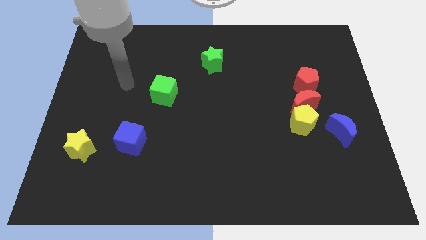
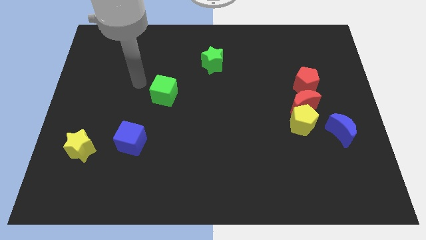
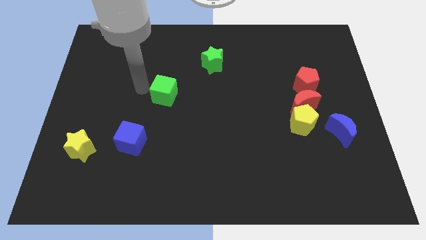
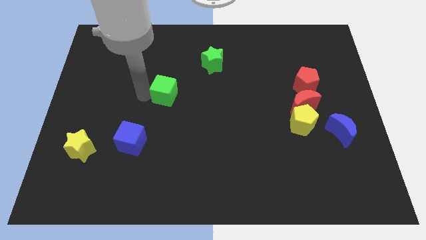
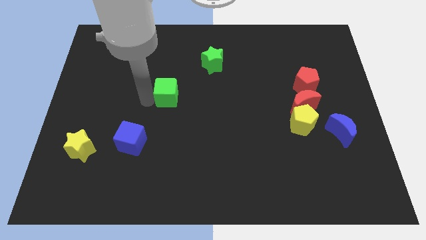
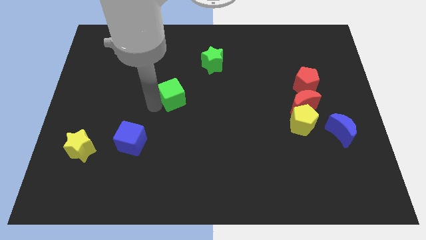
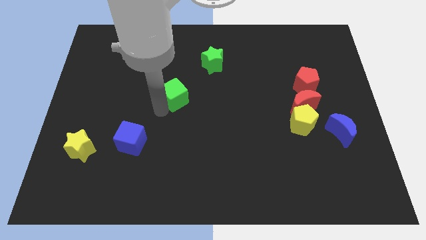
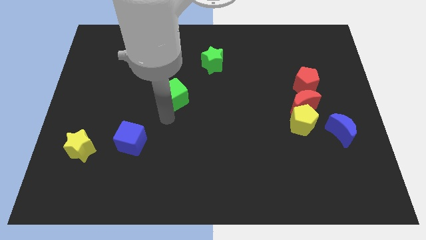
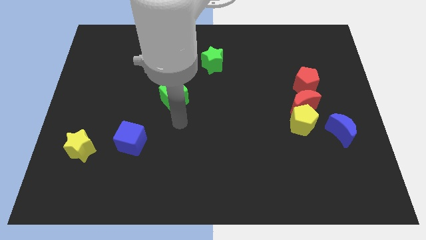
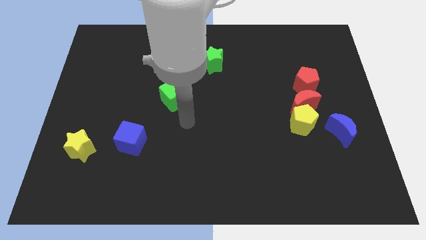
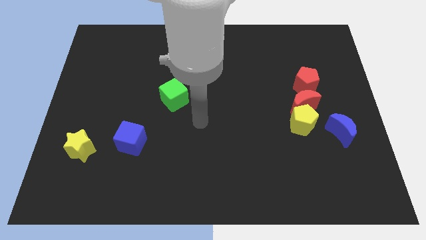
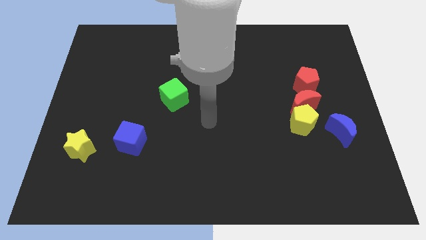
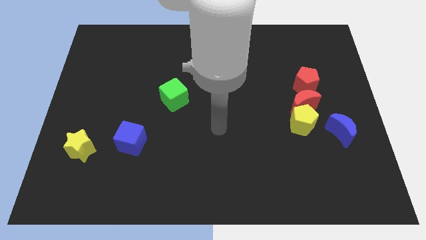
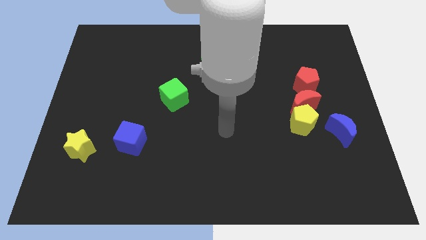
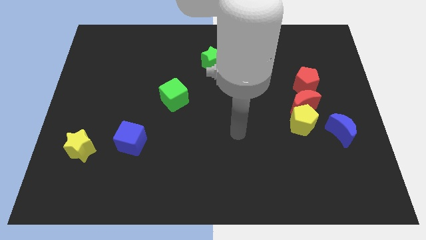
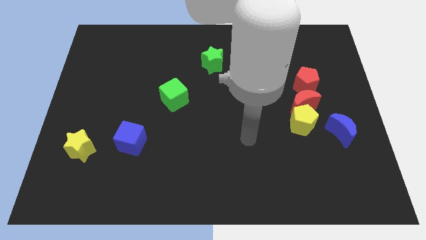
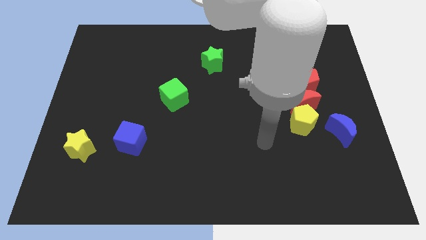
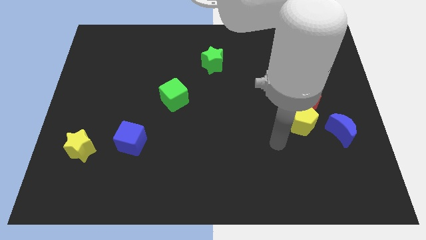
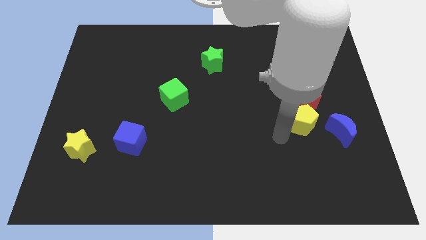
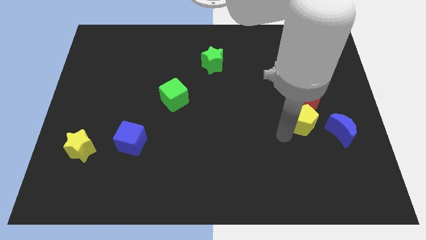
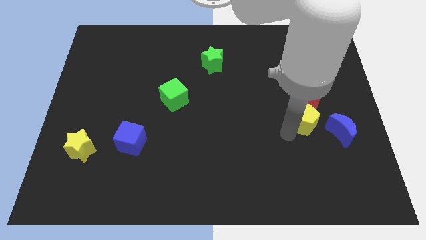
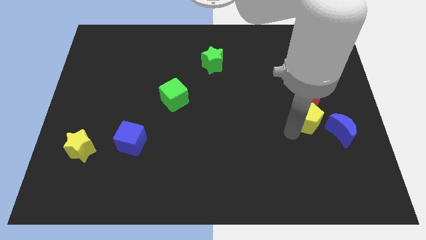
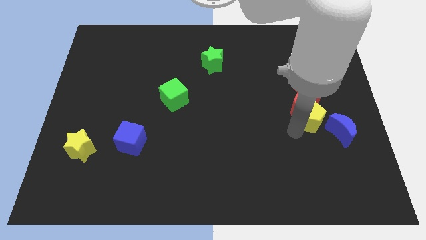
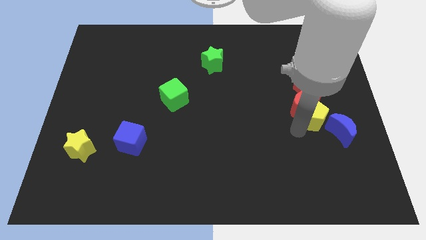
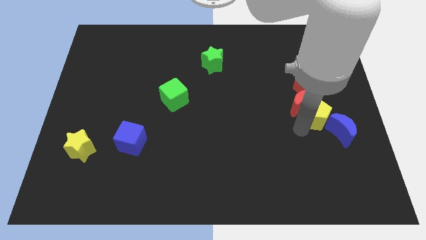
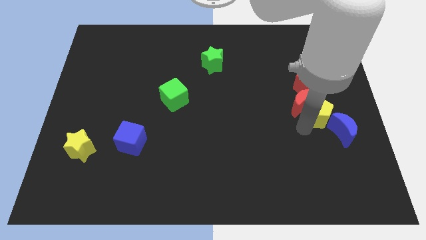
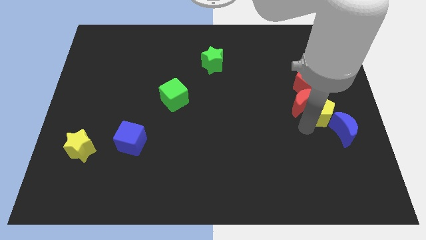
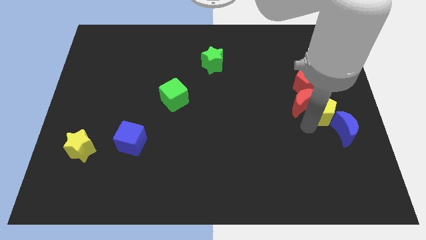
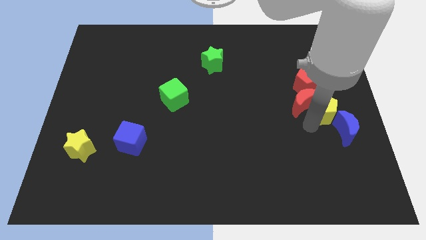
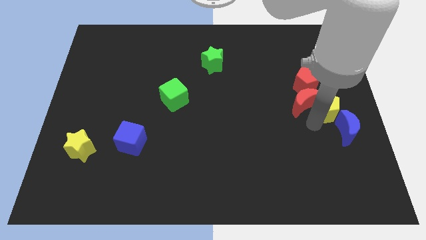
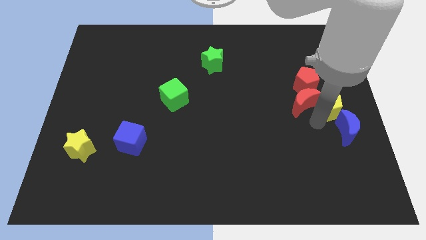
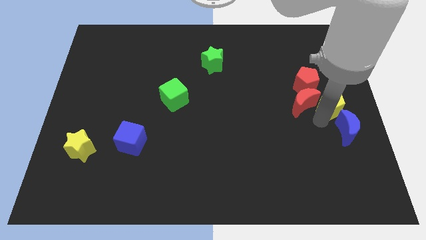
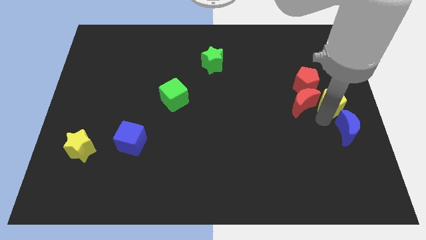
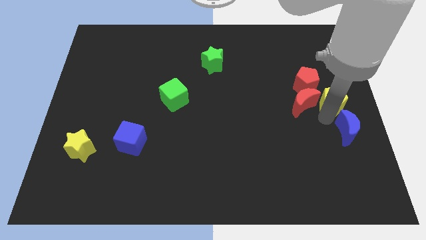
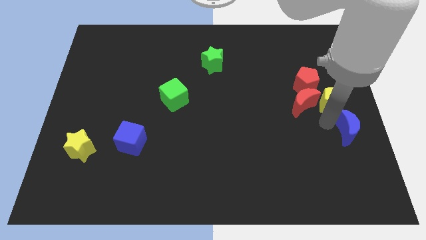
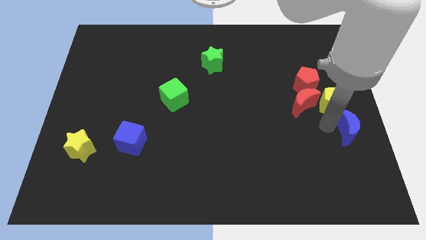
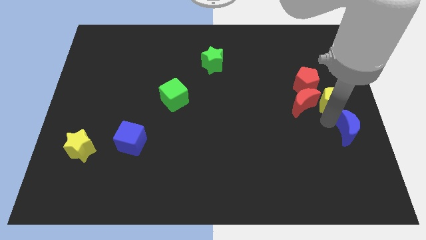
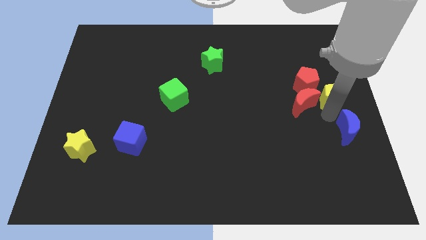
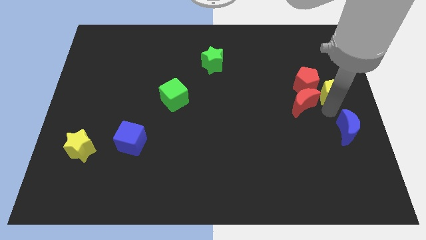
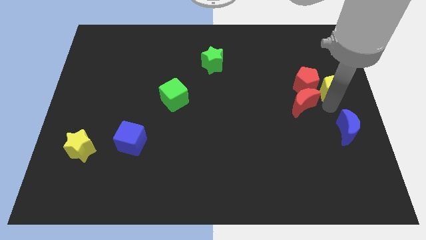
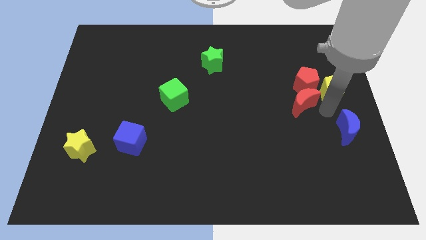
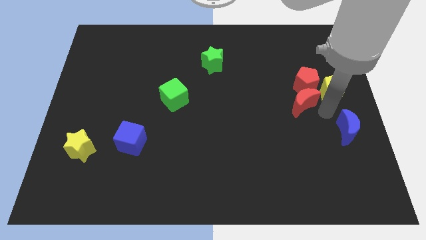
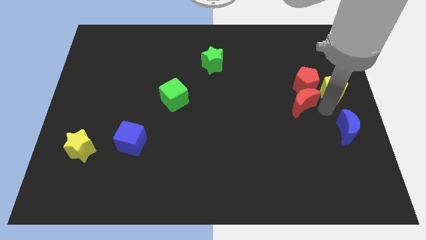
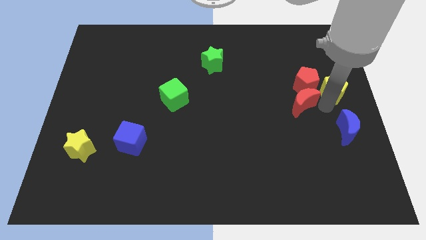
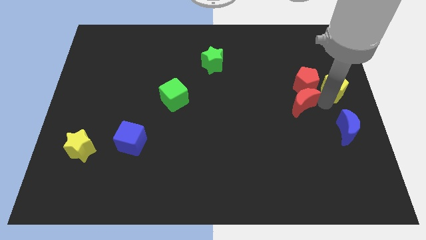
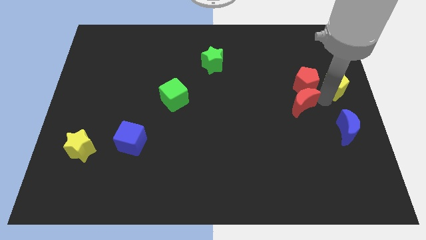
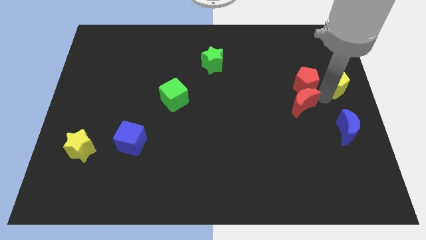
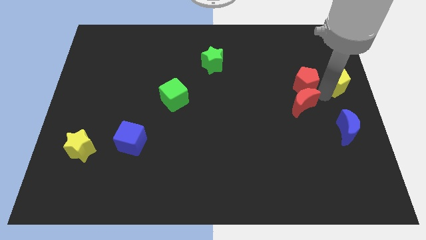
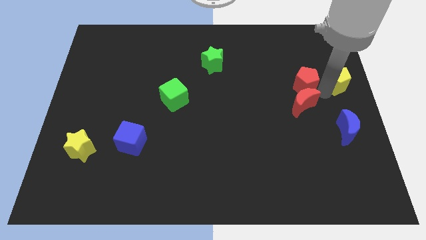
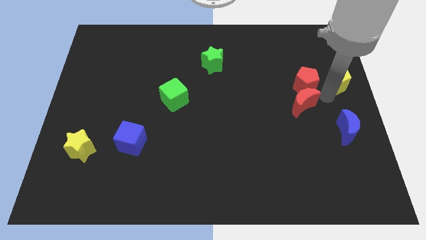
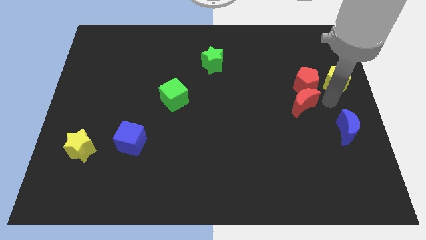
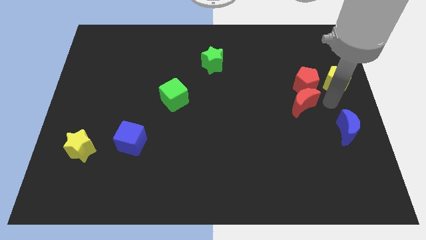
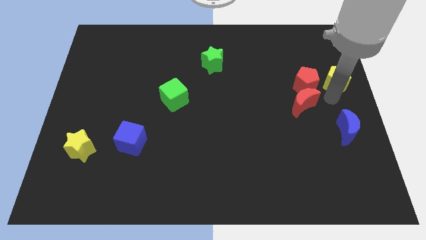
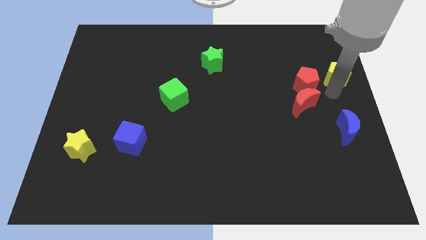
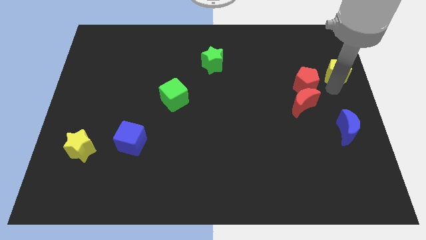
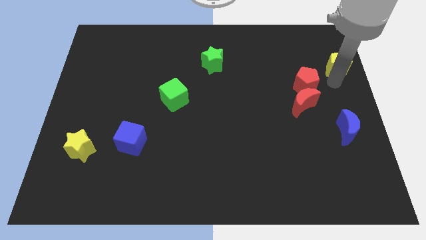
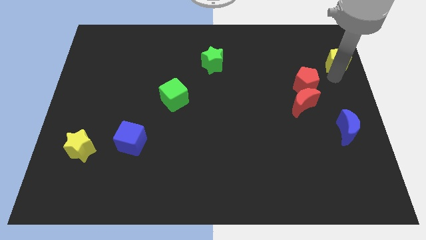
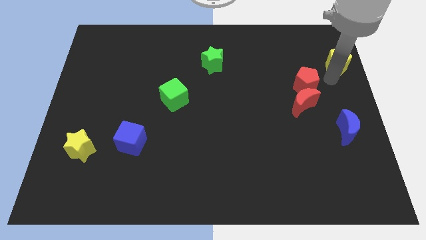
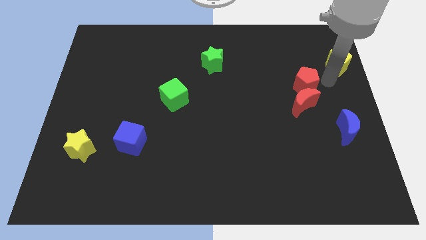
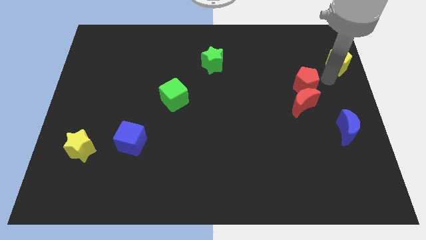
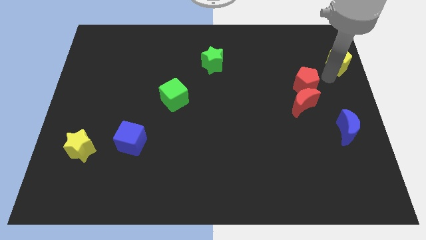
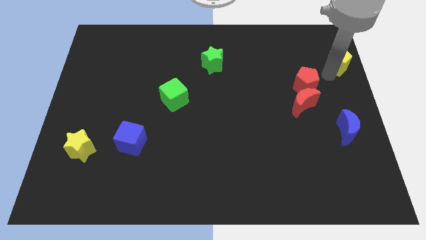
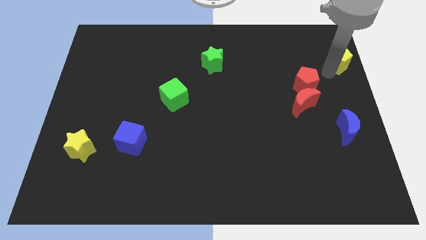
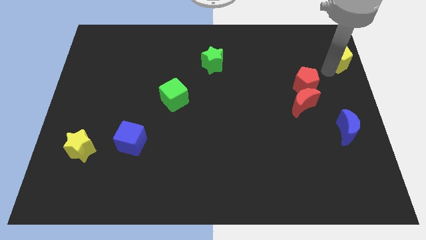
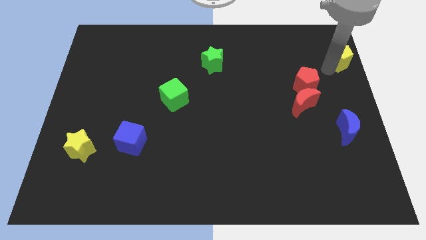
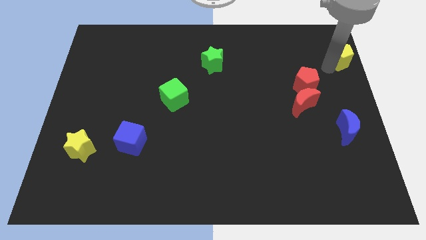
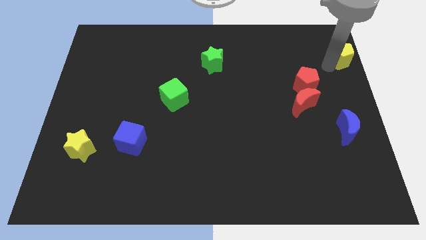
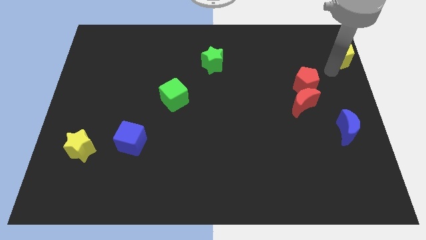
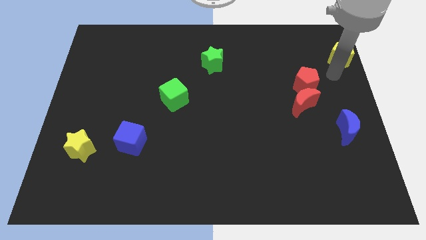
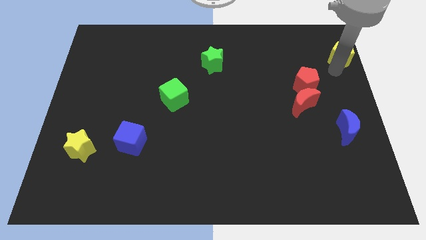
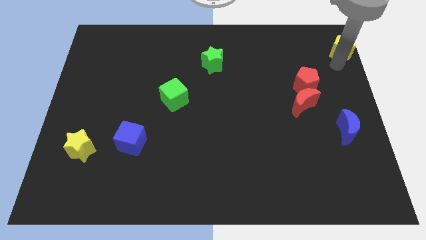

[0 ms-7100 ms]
push the yellow pentagon to the upper right corner
